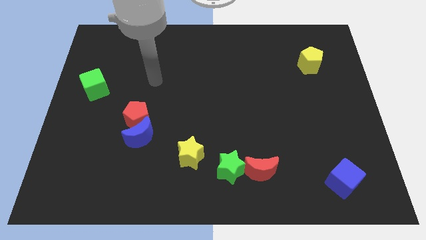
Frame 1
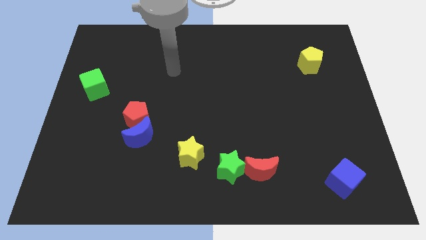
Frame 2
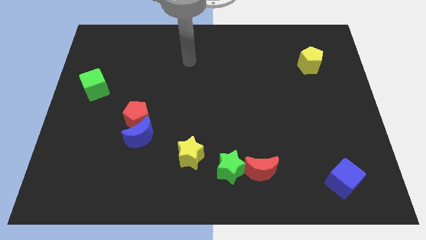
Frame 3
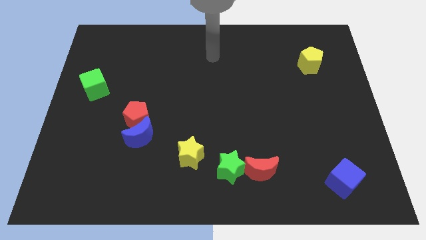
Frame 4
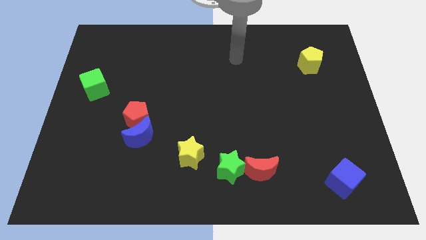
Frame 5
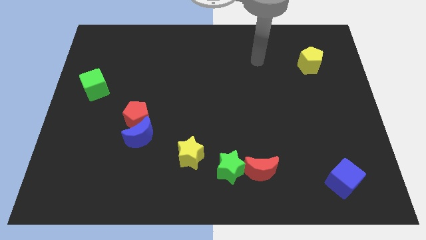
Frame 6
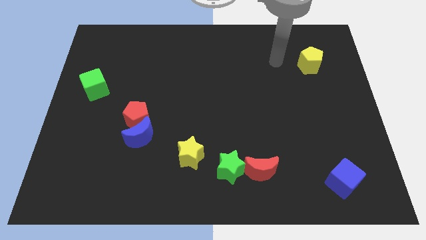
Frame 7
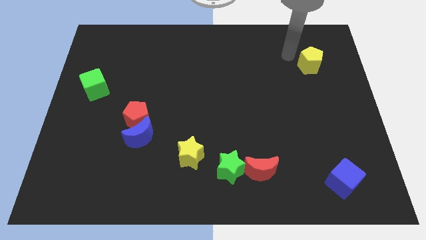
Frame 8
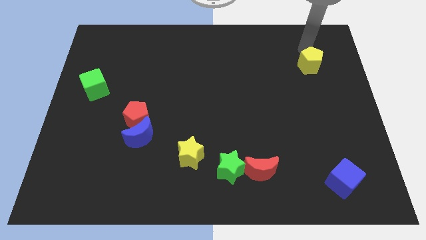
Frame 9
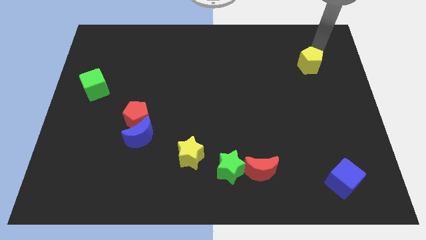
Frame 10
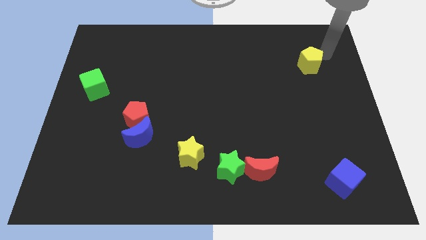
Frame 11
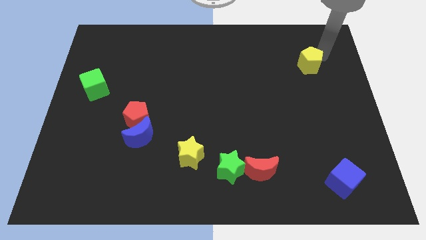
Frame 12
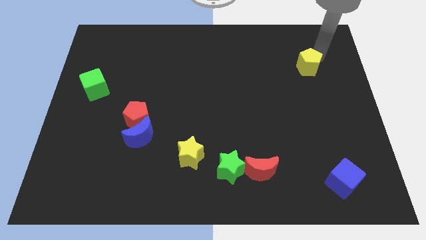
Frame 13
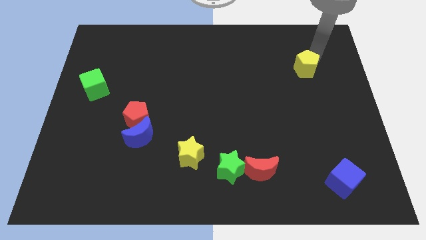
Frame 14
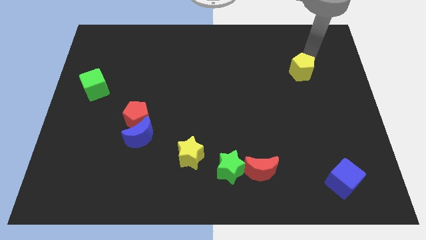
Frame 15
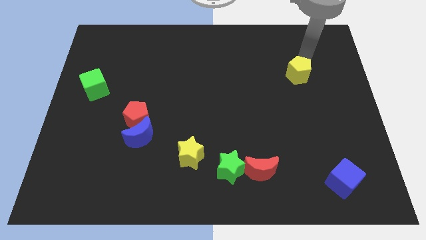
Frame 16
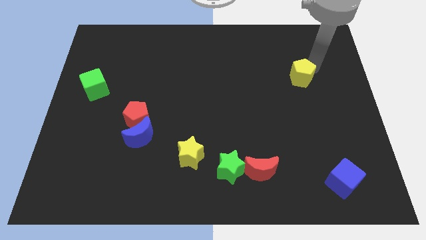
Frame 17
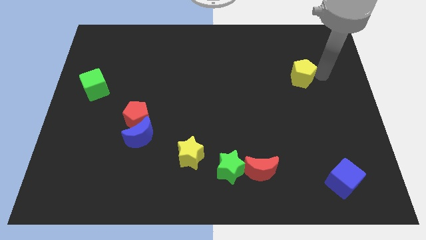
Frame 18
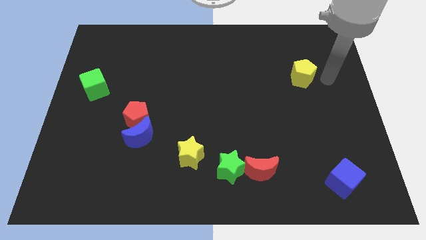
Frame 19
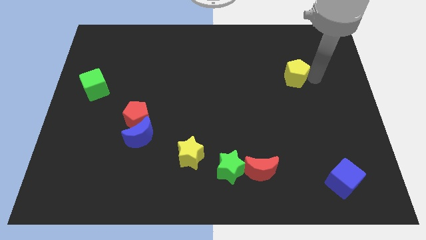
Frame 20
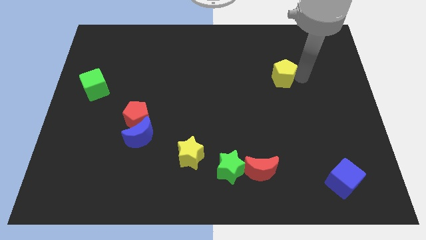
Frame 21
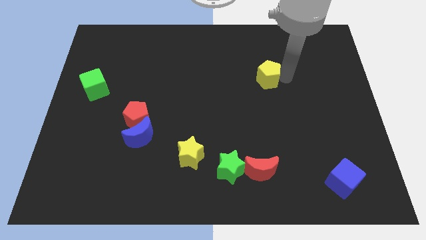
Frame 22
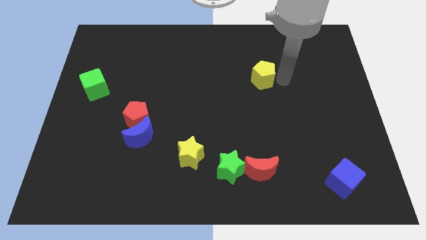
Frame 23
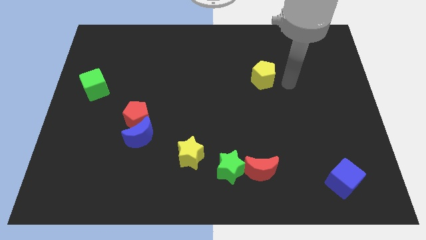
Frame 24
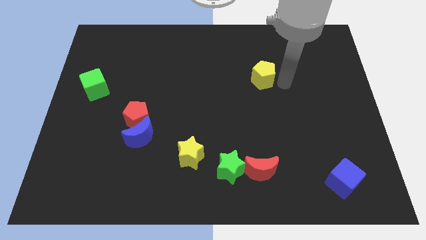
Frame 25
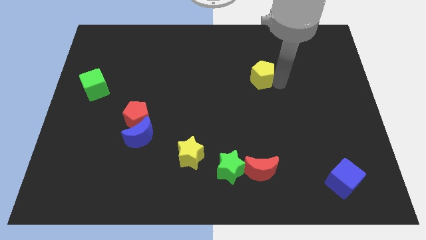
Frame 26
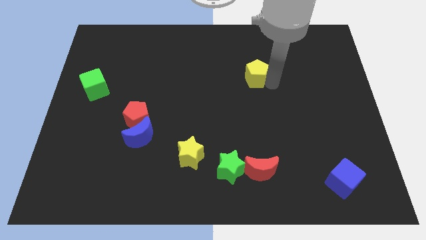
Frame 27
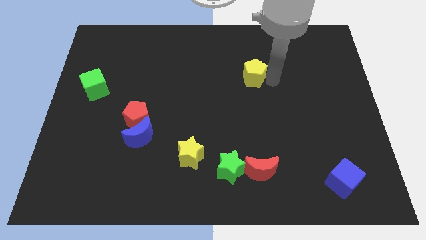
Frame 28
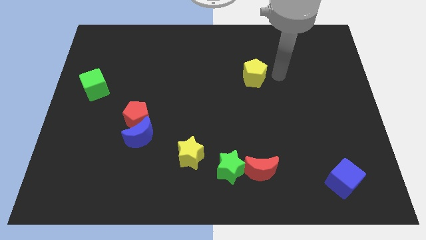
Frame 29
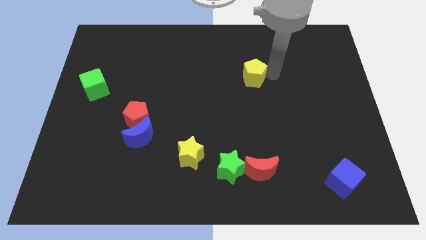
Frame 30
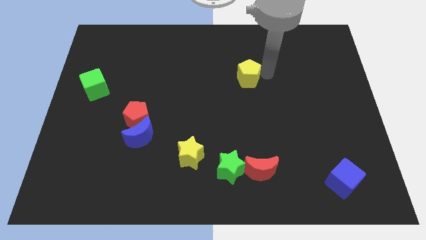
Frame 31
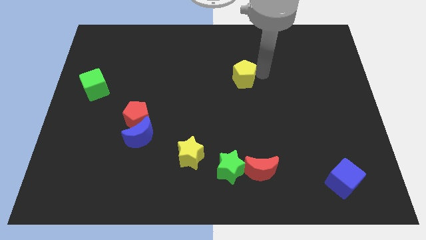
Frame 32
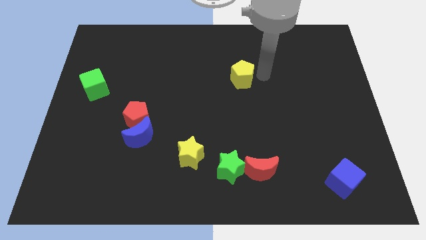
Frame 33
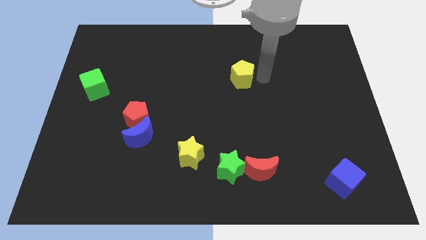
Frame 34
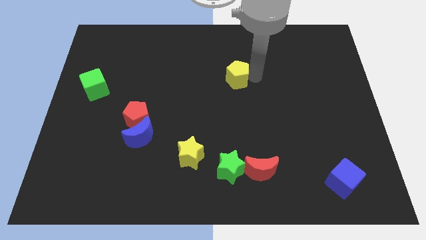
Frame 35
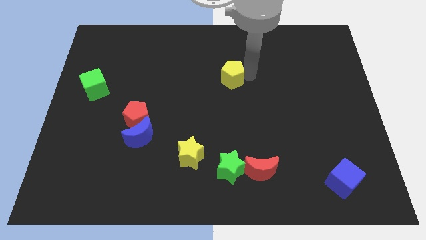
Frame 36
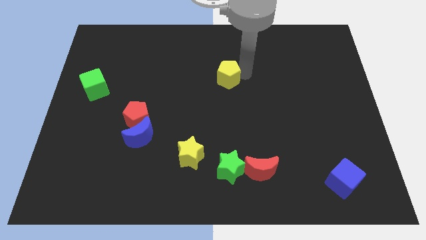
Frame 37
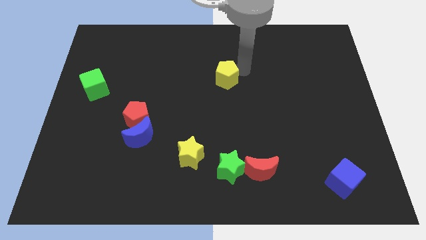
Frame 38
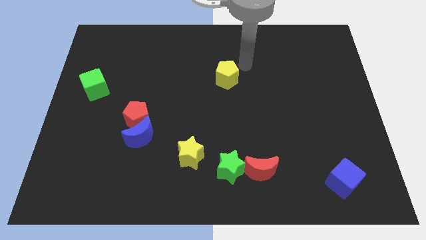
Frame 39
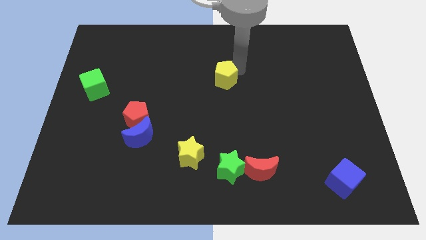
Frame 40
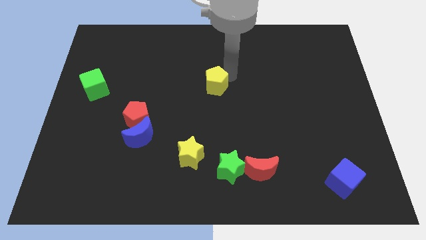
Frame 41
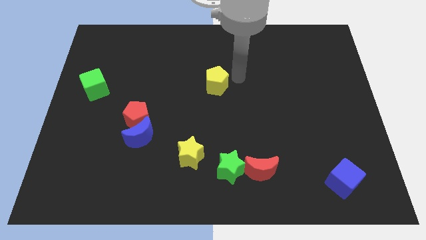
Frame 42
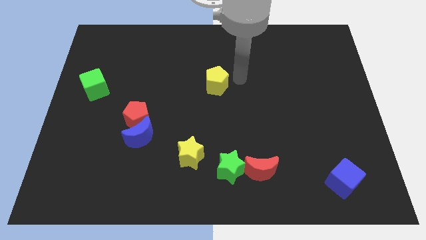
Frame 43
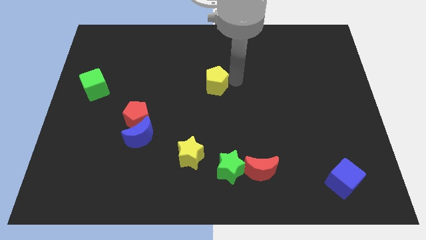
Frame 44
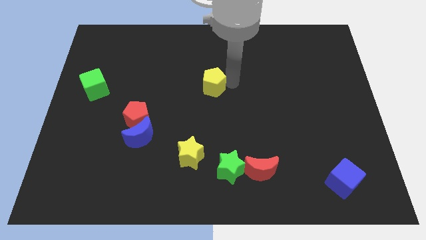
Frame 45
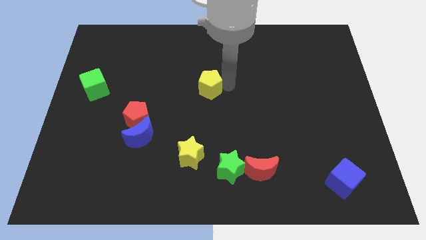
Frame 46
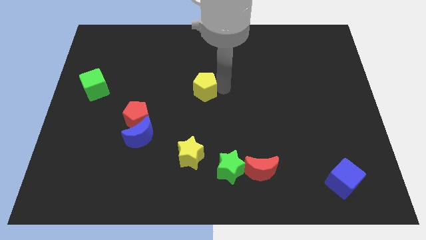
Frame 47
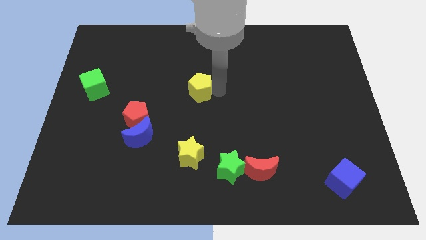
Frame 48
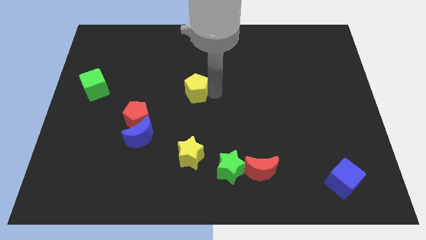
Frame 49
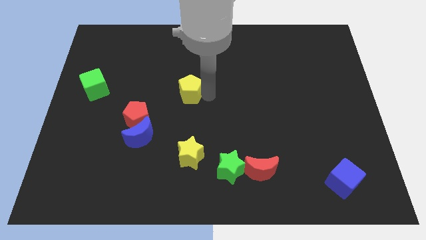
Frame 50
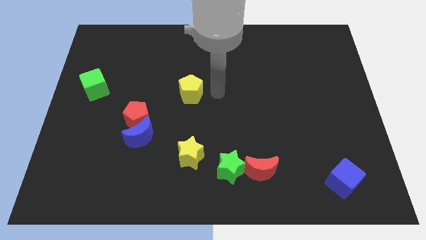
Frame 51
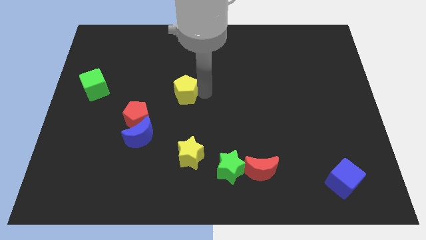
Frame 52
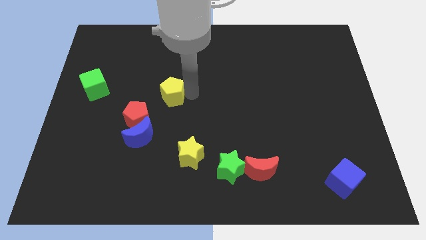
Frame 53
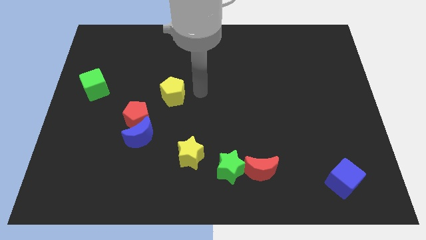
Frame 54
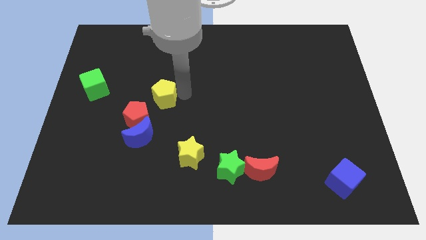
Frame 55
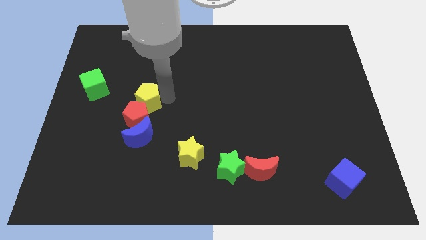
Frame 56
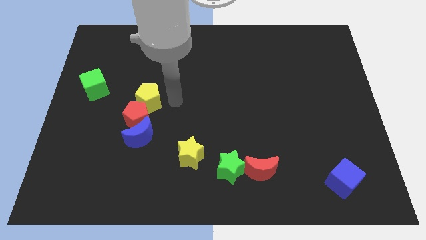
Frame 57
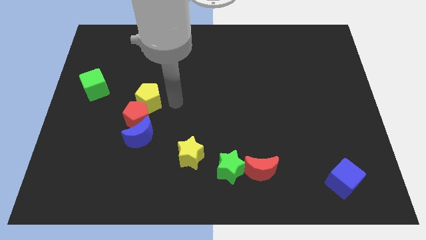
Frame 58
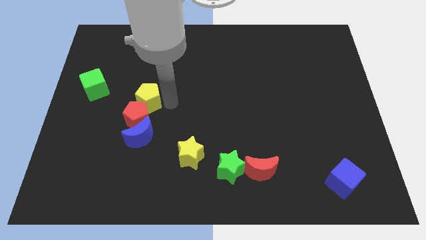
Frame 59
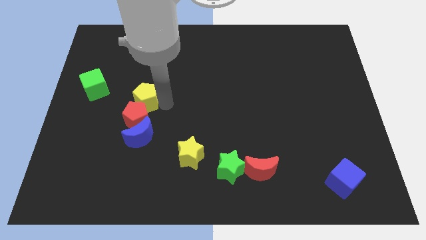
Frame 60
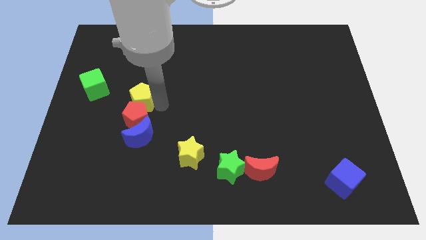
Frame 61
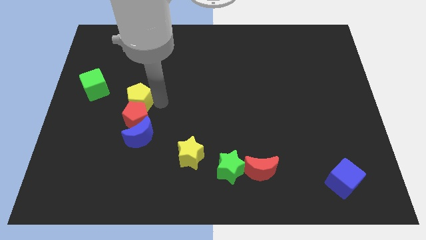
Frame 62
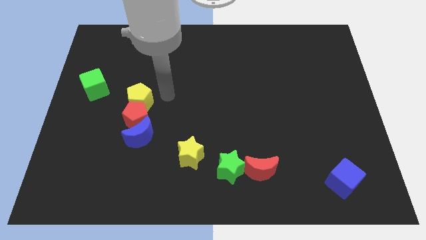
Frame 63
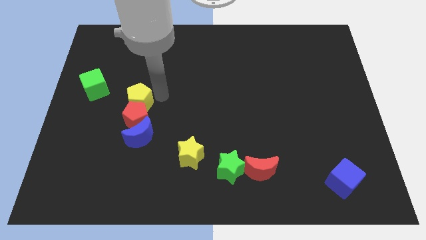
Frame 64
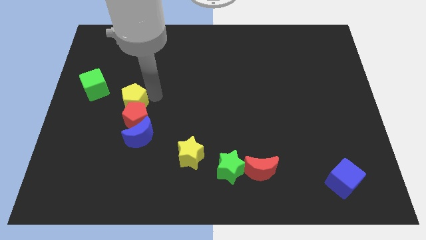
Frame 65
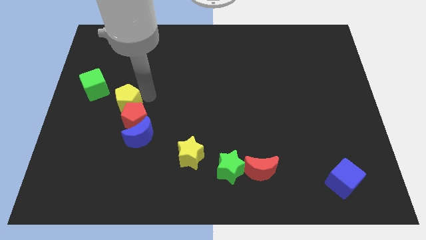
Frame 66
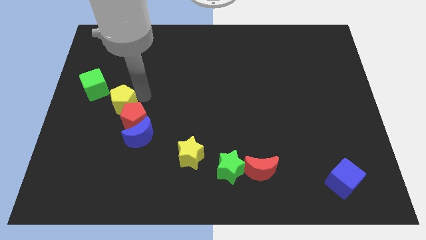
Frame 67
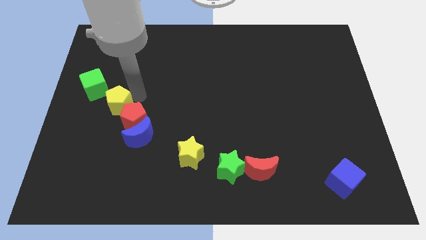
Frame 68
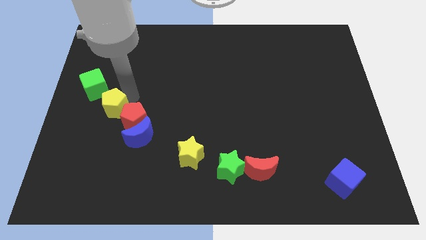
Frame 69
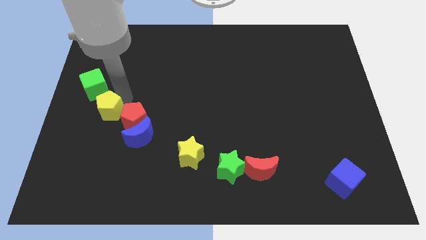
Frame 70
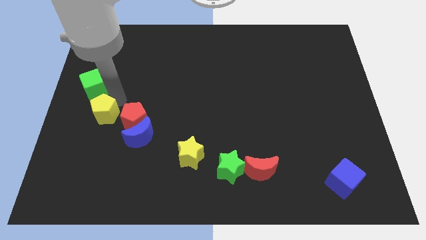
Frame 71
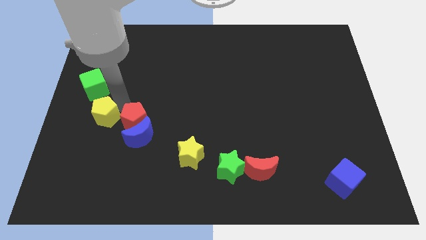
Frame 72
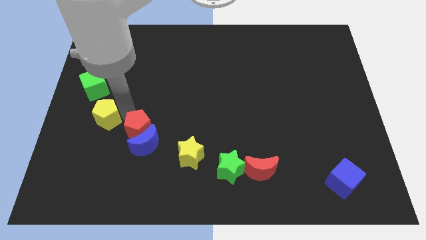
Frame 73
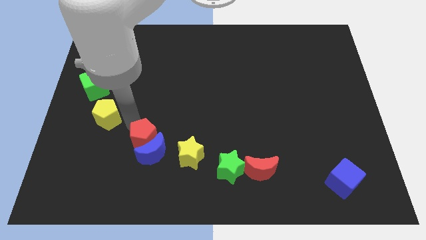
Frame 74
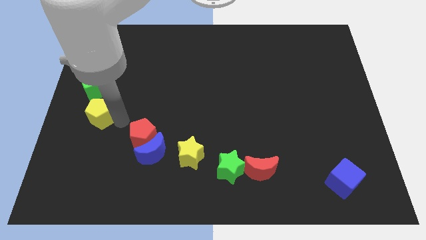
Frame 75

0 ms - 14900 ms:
push the yellow pentagon to the left side

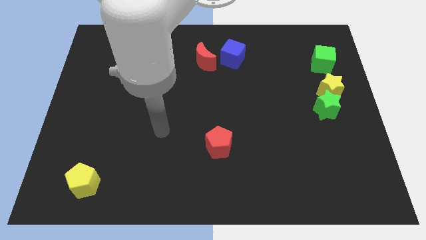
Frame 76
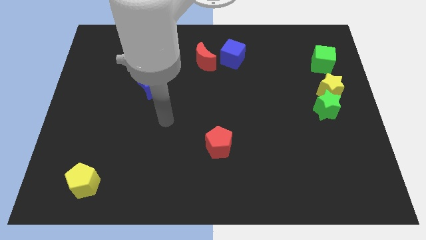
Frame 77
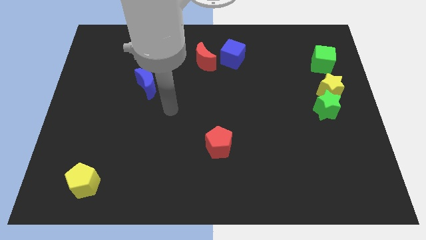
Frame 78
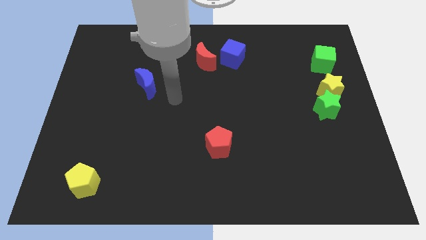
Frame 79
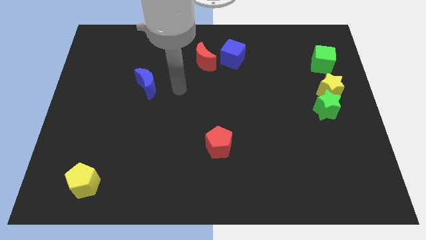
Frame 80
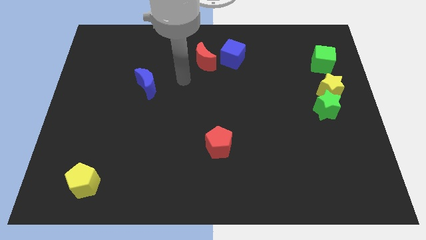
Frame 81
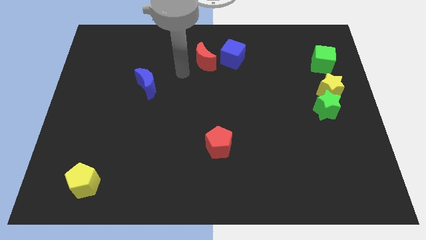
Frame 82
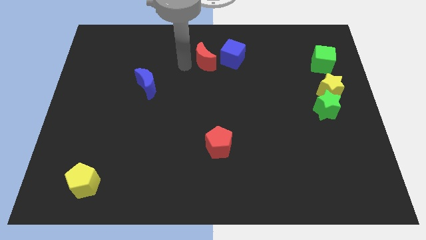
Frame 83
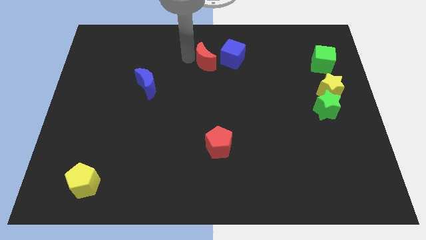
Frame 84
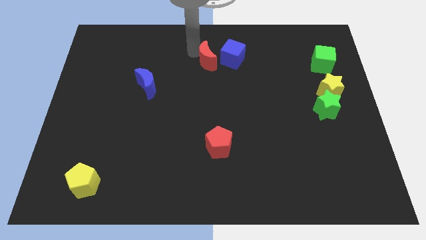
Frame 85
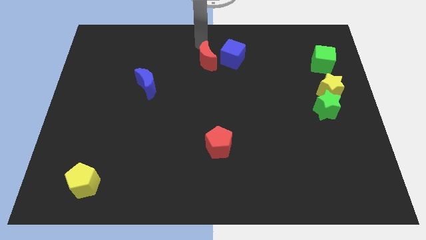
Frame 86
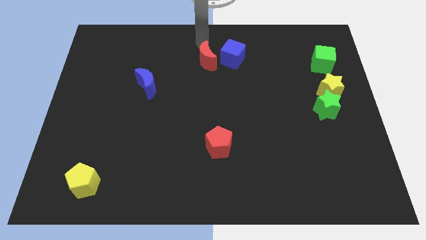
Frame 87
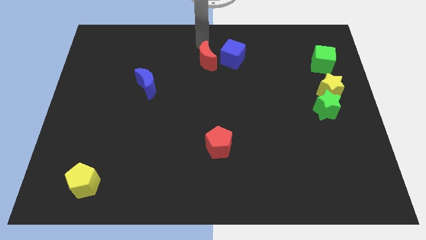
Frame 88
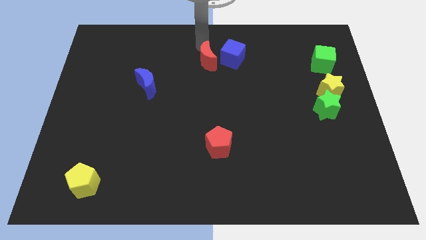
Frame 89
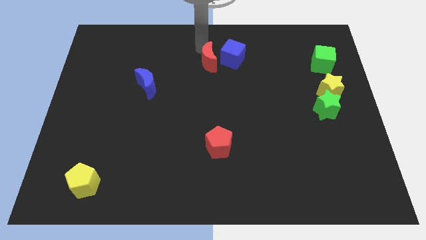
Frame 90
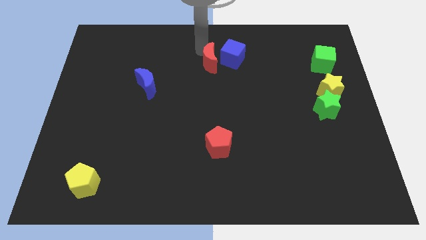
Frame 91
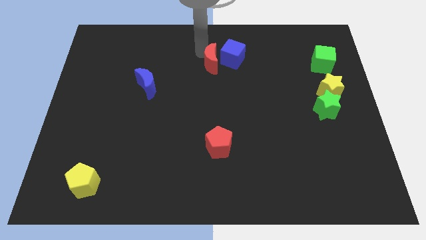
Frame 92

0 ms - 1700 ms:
move the red moon to the center
